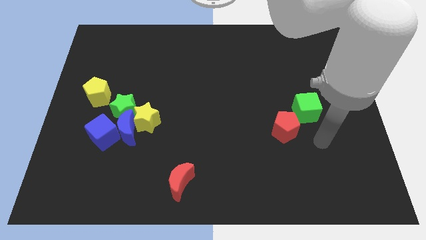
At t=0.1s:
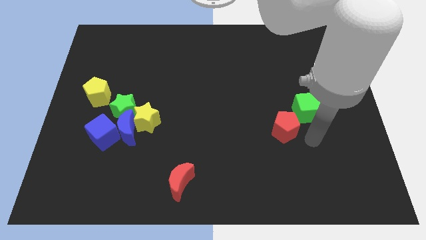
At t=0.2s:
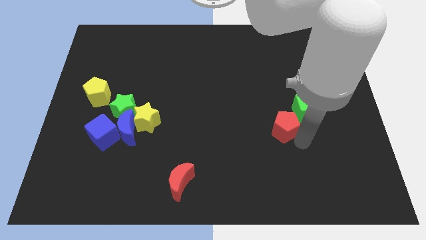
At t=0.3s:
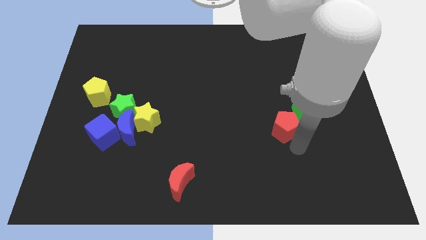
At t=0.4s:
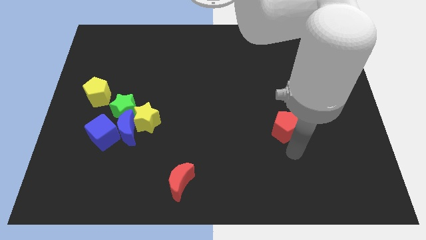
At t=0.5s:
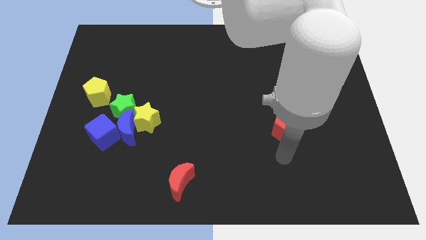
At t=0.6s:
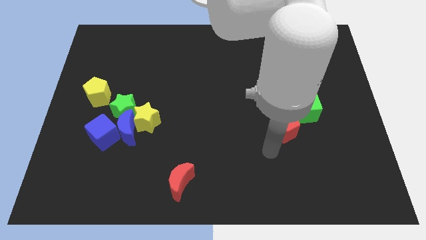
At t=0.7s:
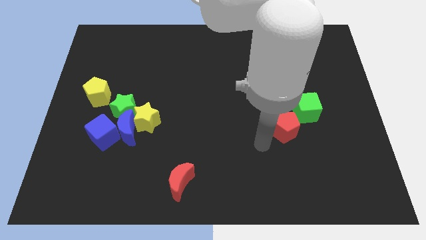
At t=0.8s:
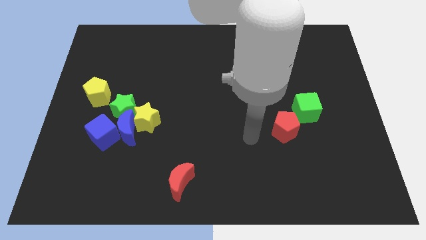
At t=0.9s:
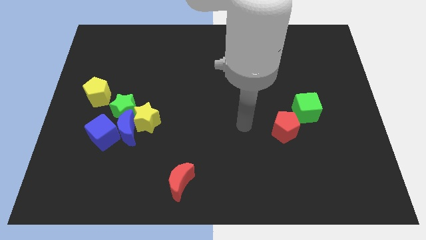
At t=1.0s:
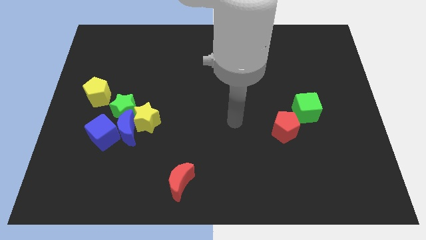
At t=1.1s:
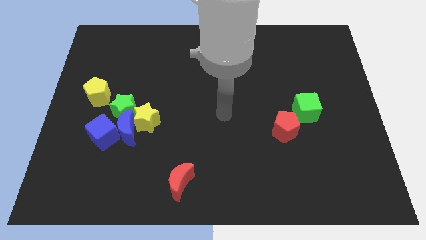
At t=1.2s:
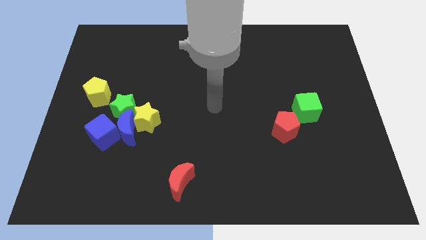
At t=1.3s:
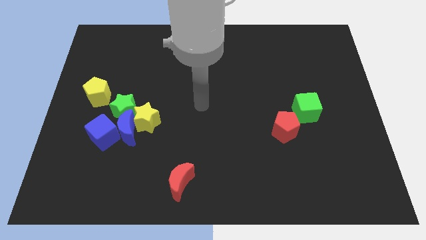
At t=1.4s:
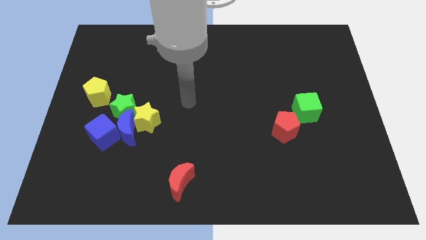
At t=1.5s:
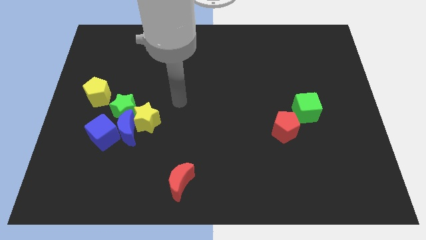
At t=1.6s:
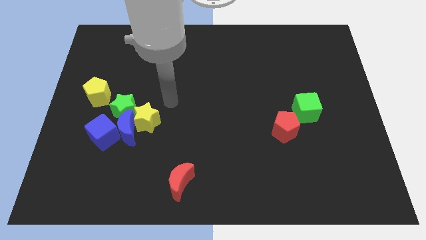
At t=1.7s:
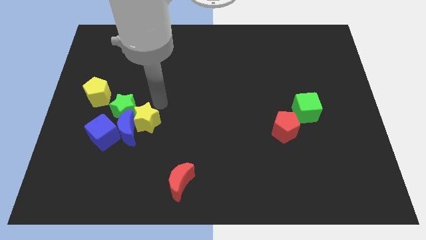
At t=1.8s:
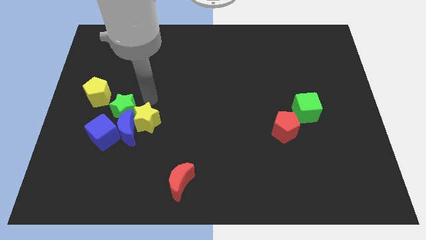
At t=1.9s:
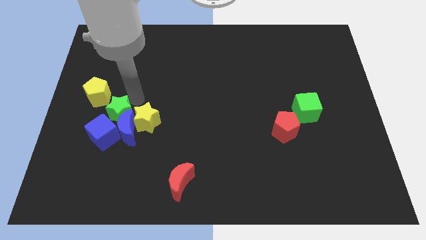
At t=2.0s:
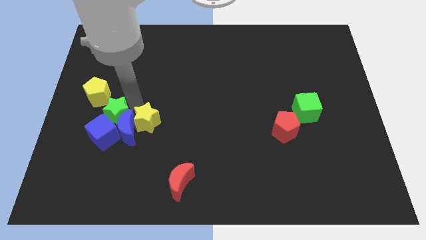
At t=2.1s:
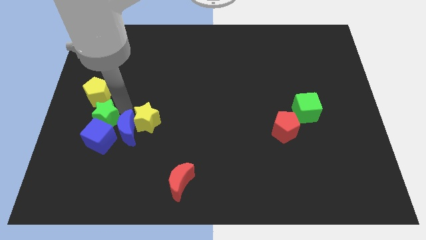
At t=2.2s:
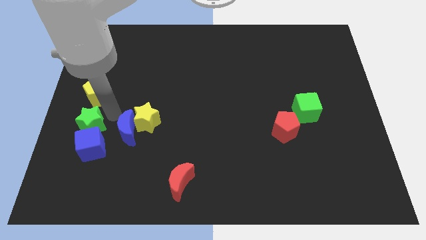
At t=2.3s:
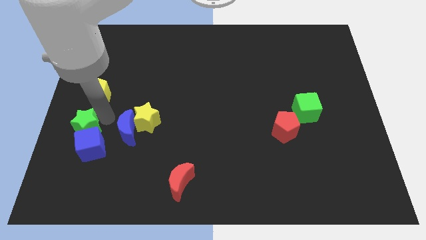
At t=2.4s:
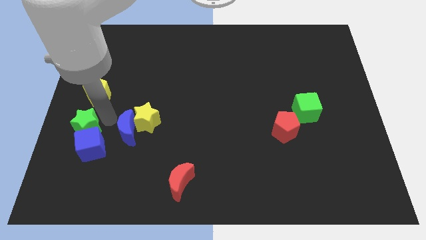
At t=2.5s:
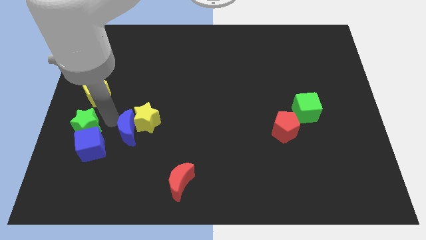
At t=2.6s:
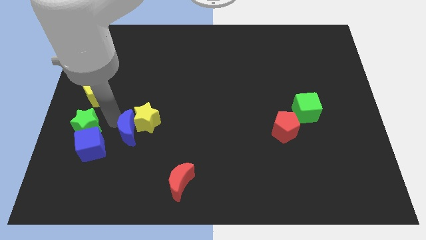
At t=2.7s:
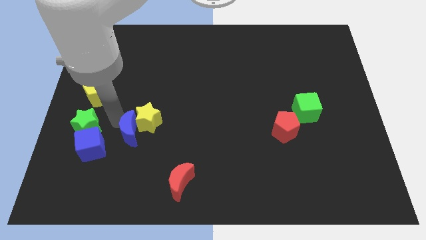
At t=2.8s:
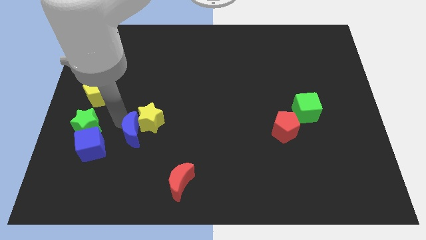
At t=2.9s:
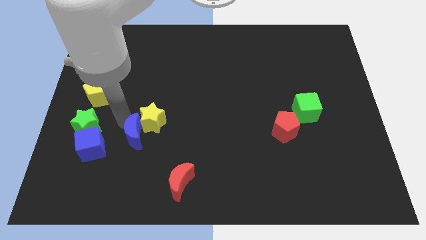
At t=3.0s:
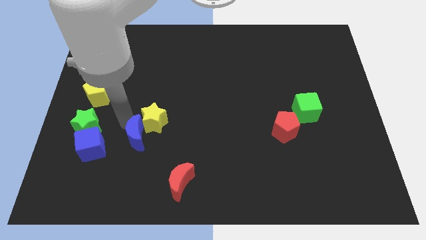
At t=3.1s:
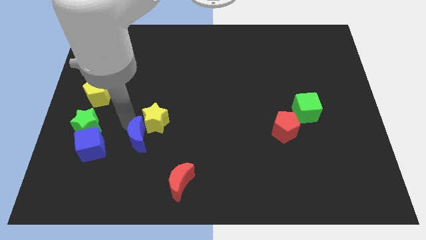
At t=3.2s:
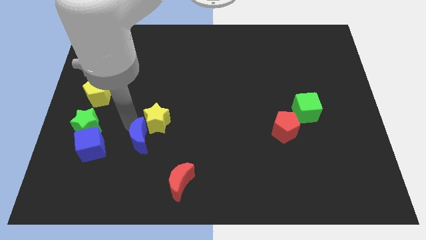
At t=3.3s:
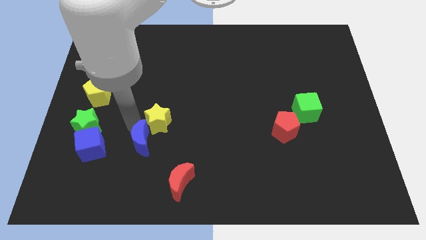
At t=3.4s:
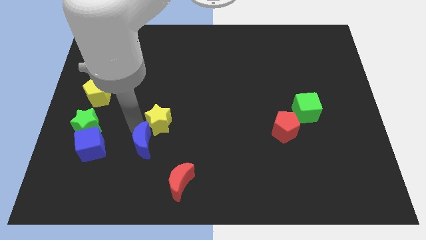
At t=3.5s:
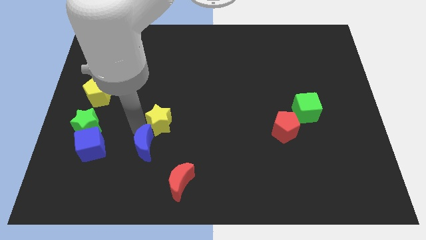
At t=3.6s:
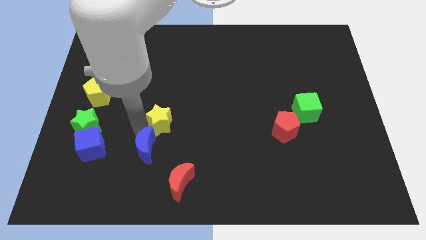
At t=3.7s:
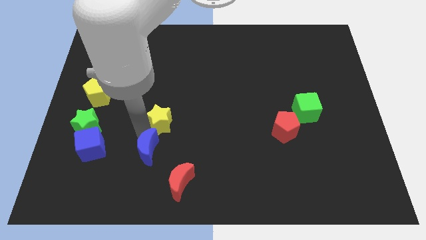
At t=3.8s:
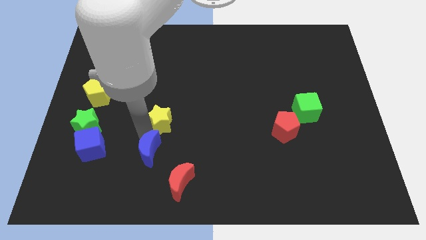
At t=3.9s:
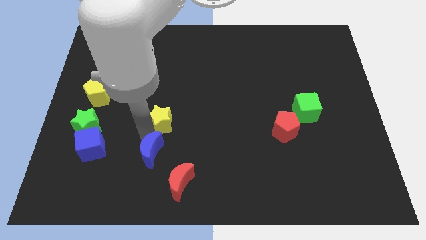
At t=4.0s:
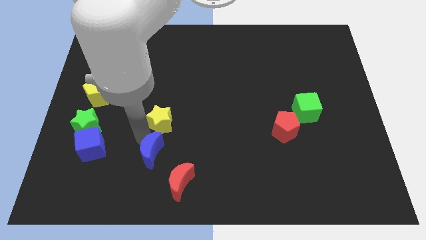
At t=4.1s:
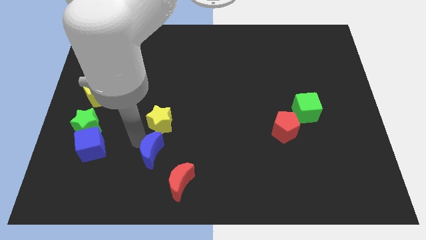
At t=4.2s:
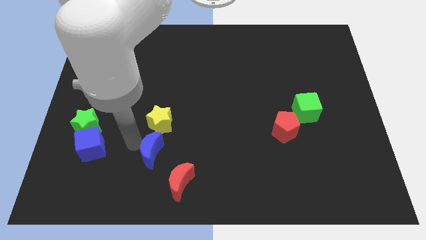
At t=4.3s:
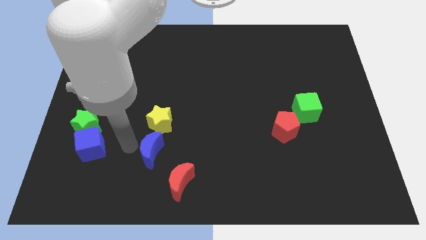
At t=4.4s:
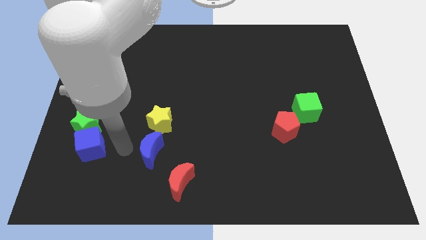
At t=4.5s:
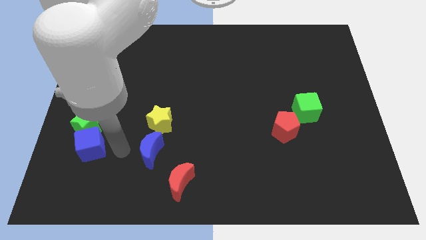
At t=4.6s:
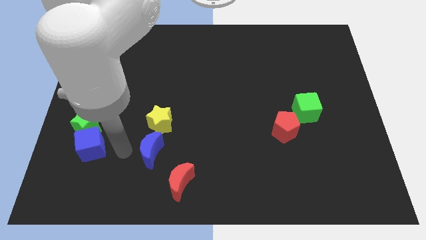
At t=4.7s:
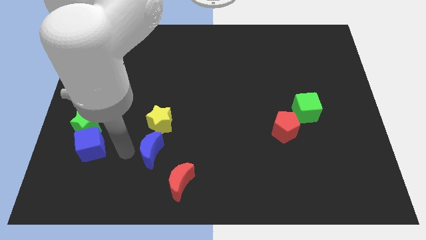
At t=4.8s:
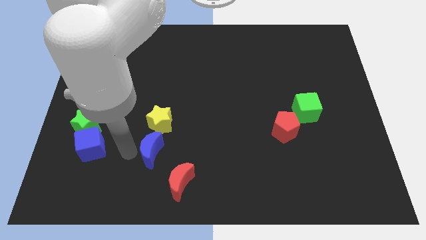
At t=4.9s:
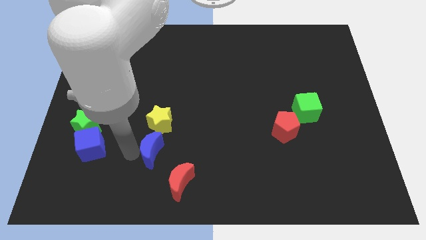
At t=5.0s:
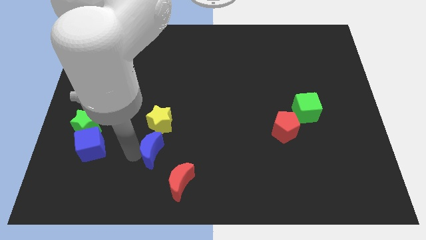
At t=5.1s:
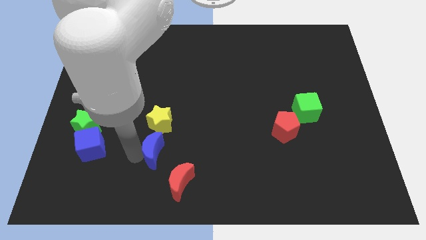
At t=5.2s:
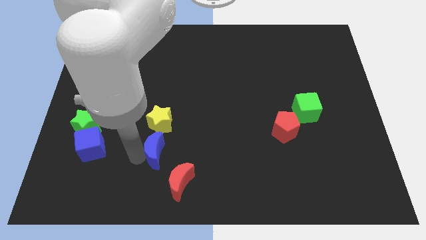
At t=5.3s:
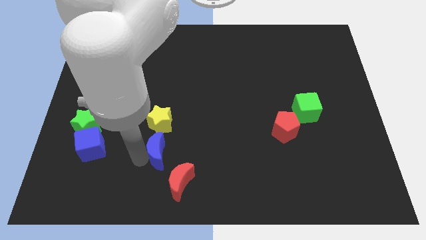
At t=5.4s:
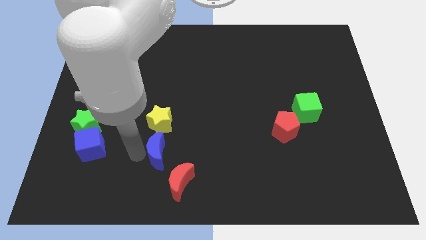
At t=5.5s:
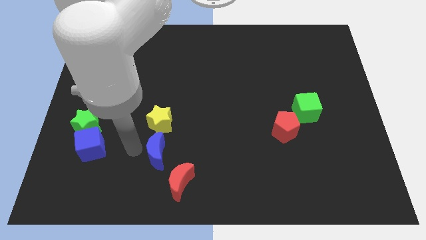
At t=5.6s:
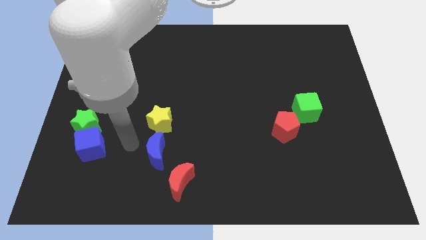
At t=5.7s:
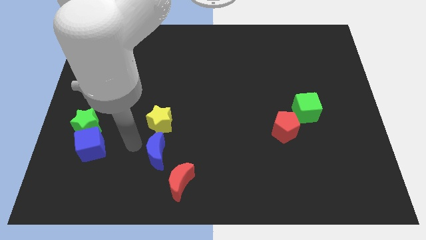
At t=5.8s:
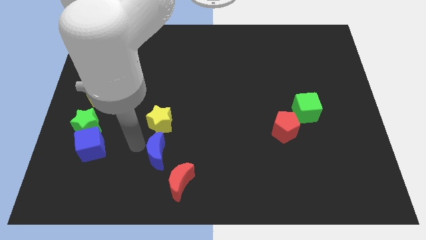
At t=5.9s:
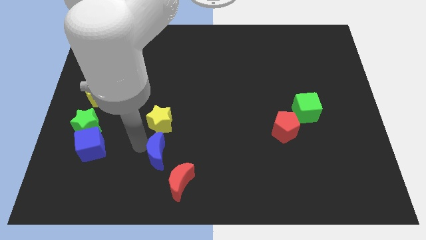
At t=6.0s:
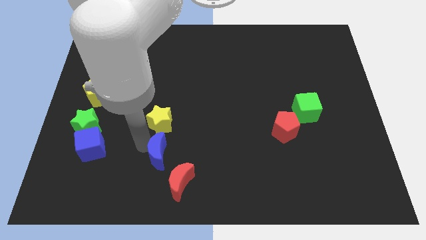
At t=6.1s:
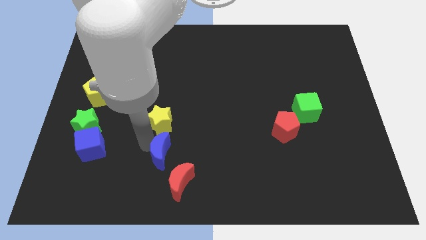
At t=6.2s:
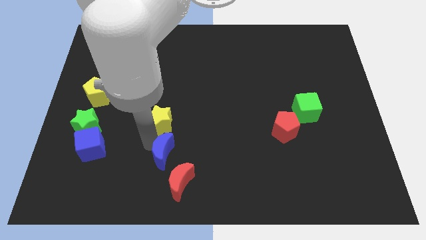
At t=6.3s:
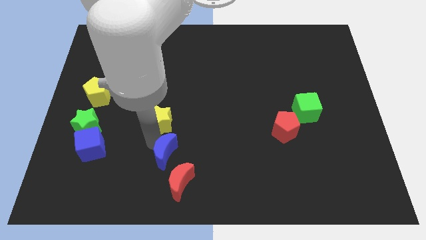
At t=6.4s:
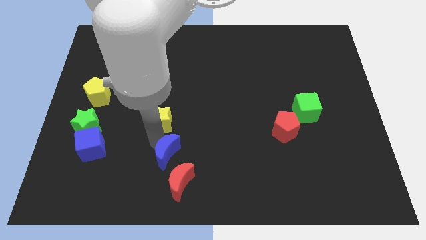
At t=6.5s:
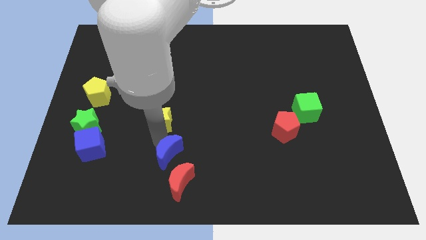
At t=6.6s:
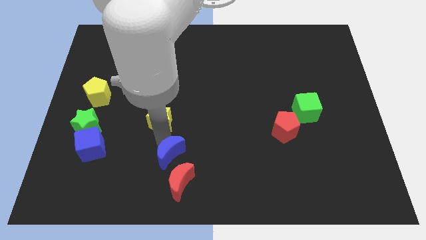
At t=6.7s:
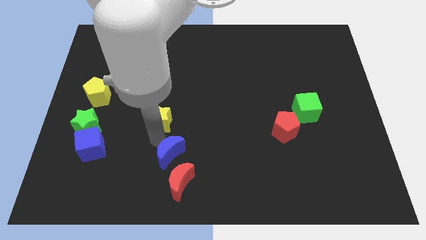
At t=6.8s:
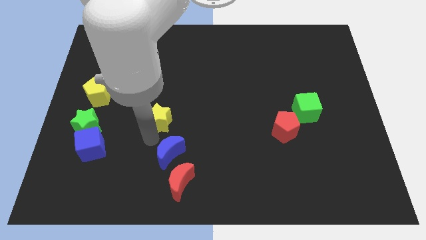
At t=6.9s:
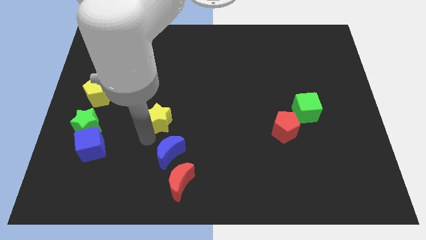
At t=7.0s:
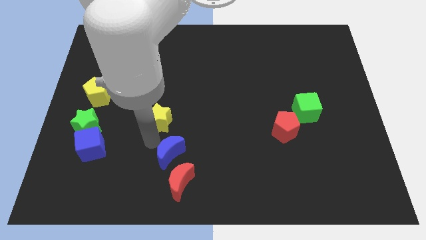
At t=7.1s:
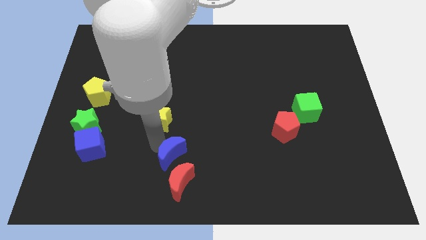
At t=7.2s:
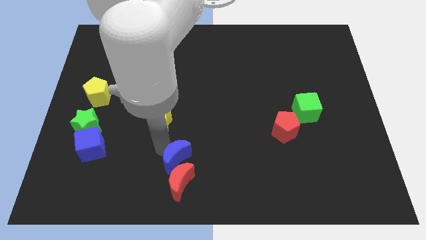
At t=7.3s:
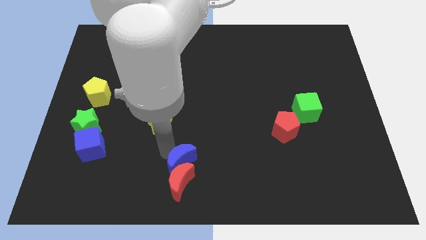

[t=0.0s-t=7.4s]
push the blue moon to the bottom side
